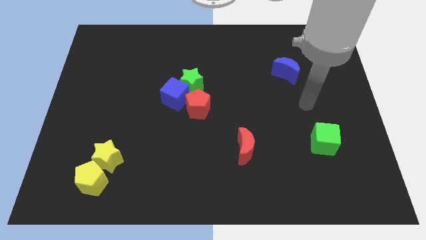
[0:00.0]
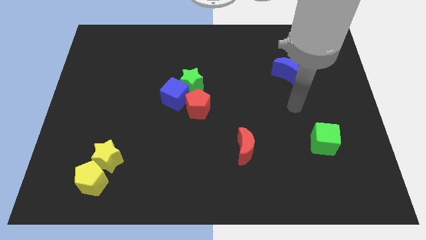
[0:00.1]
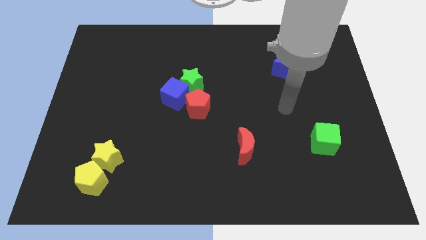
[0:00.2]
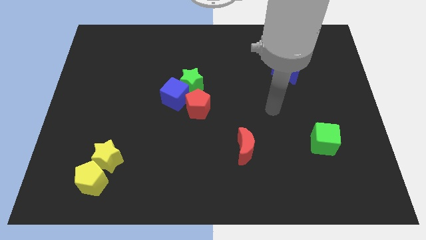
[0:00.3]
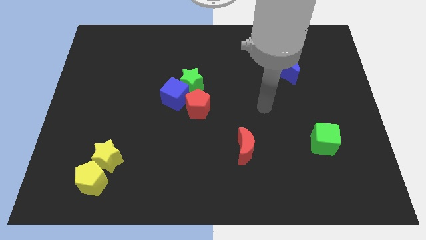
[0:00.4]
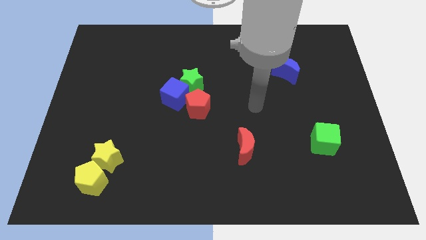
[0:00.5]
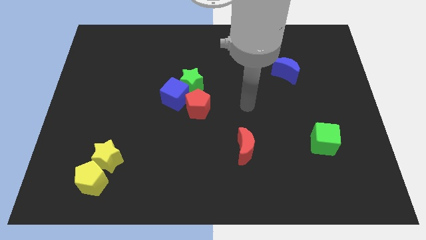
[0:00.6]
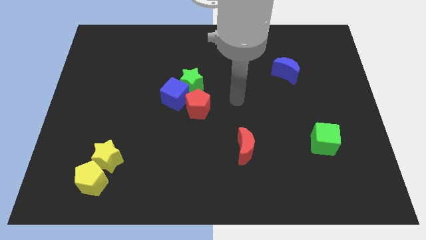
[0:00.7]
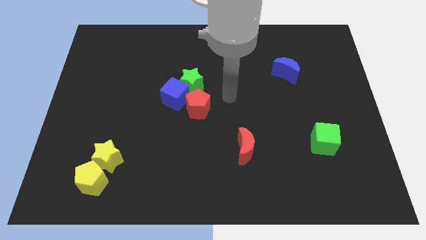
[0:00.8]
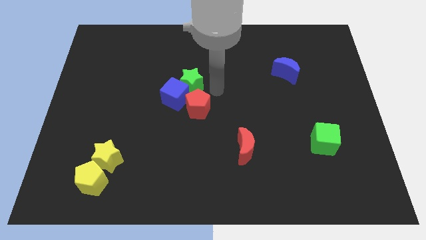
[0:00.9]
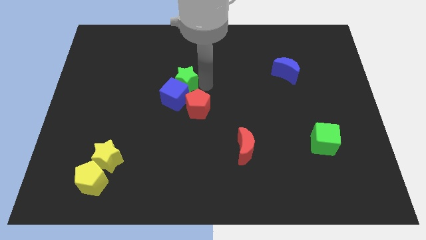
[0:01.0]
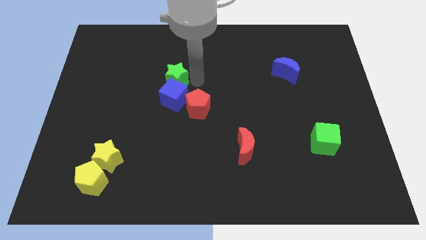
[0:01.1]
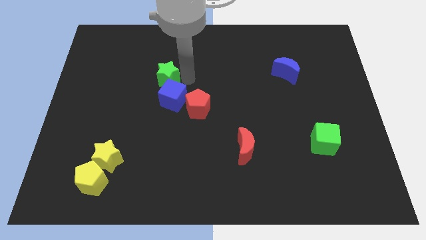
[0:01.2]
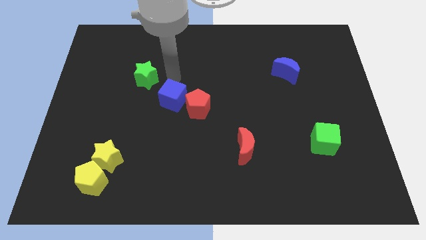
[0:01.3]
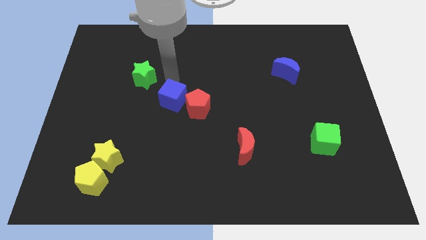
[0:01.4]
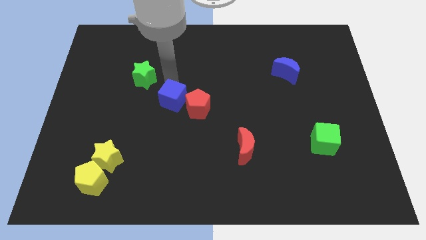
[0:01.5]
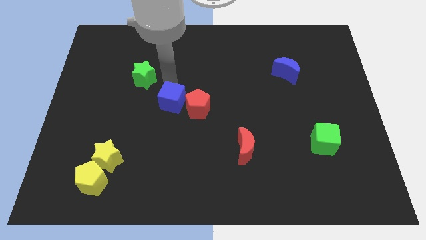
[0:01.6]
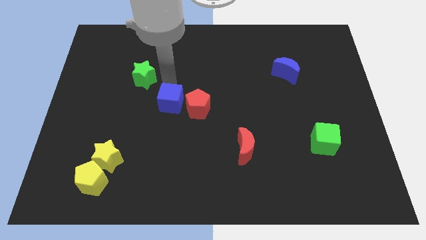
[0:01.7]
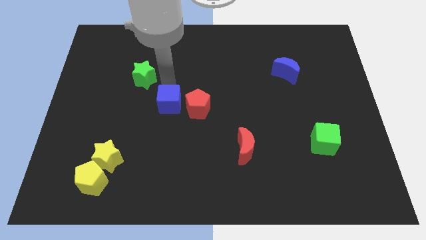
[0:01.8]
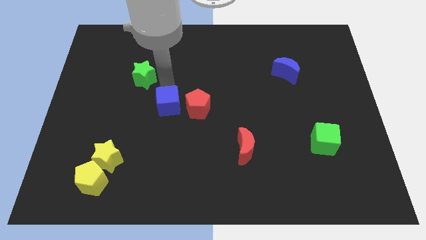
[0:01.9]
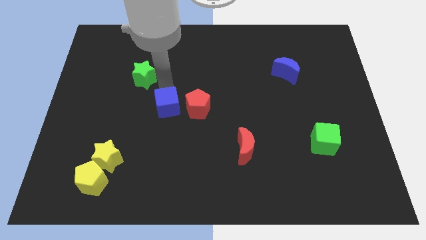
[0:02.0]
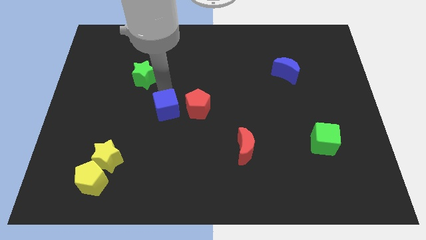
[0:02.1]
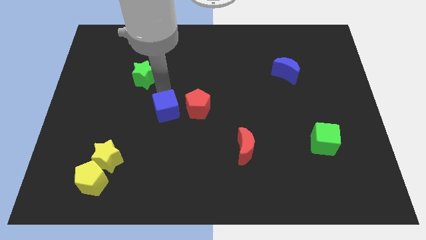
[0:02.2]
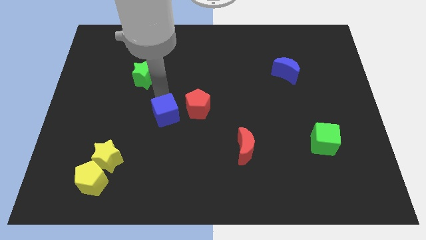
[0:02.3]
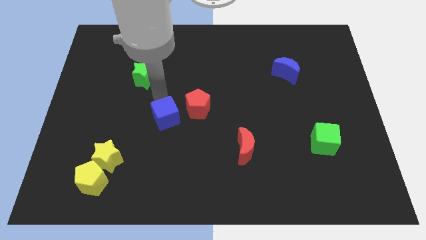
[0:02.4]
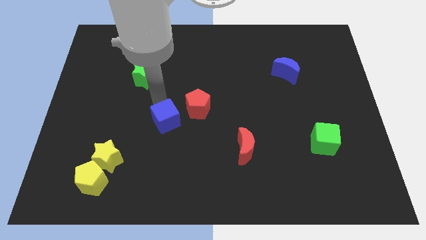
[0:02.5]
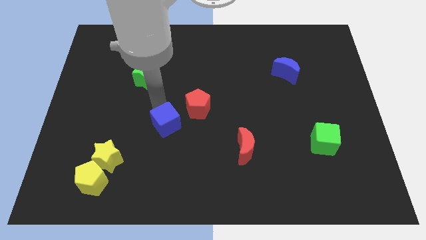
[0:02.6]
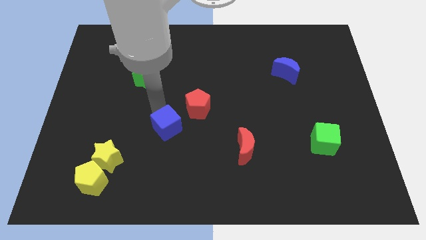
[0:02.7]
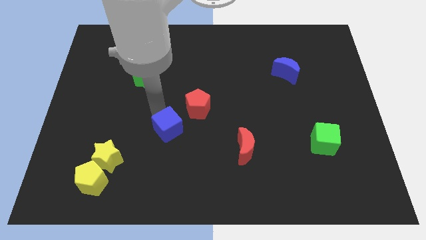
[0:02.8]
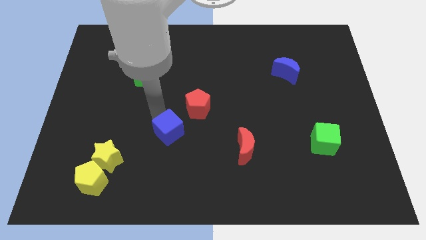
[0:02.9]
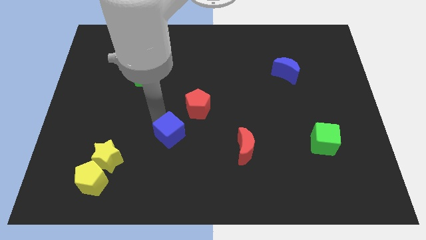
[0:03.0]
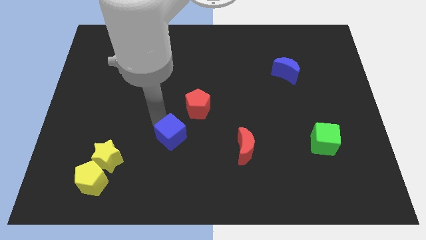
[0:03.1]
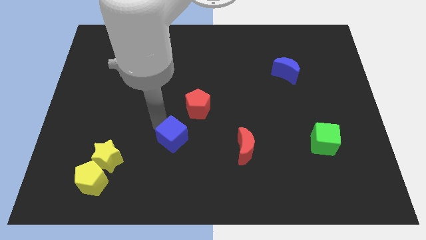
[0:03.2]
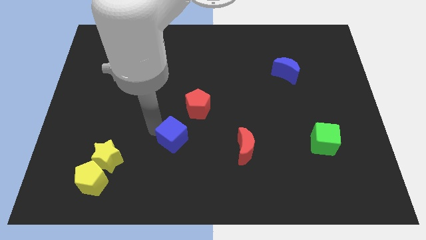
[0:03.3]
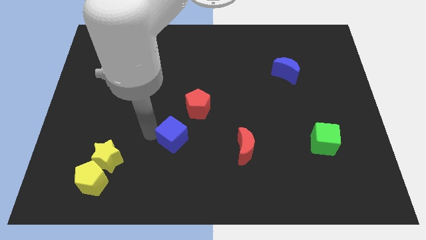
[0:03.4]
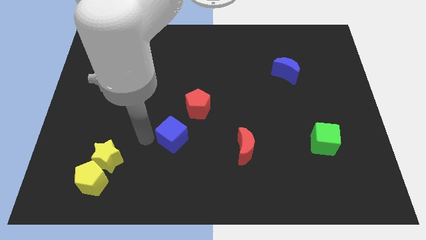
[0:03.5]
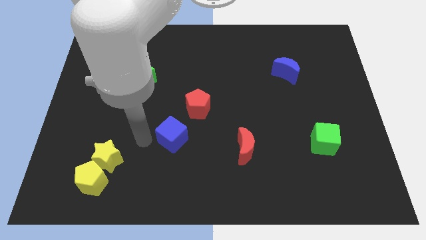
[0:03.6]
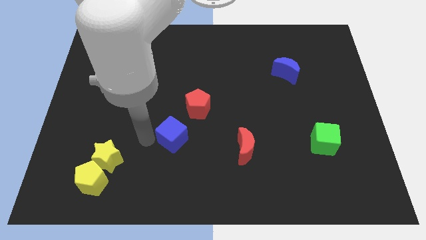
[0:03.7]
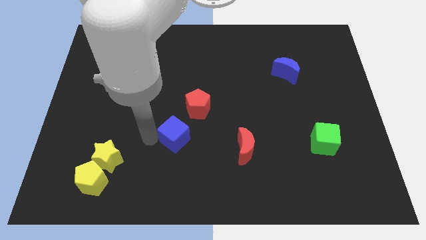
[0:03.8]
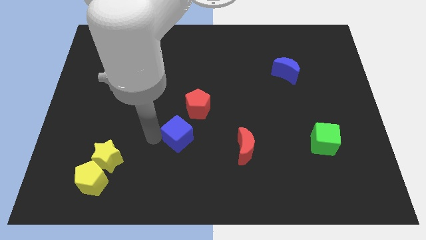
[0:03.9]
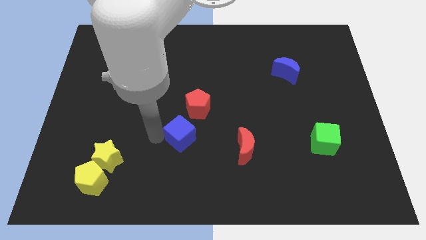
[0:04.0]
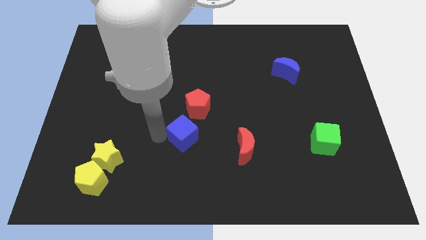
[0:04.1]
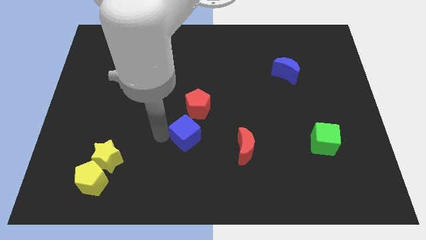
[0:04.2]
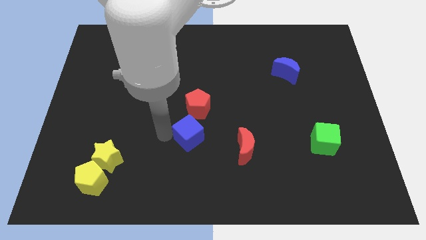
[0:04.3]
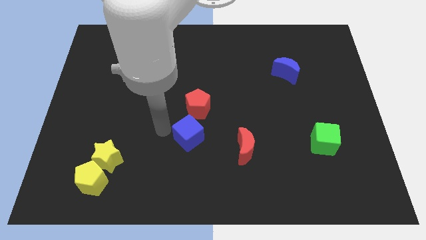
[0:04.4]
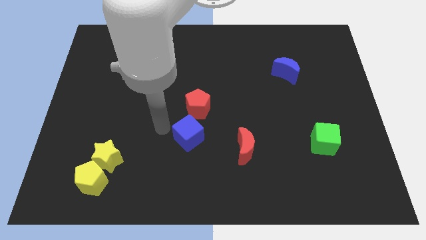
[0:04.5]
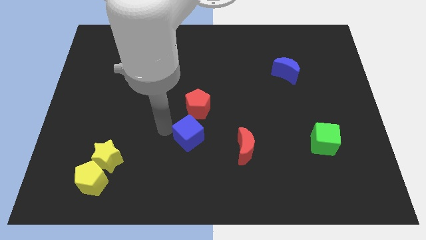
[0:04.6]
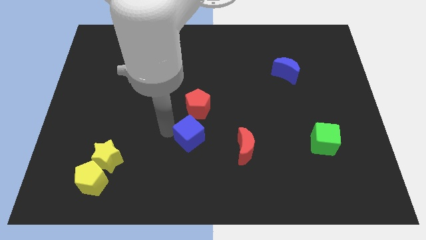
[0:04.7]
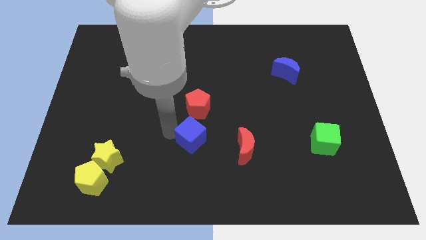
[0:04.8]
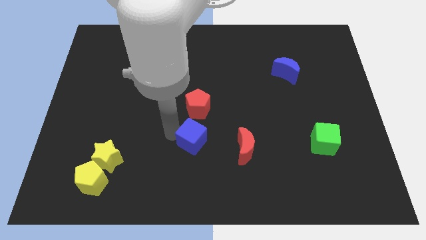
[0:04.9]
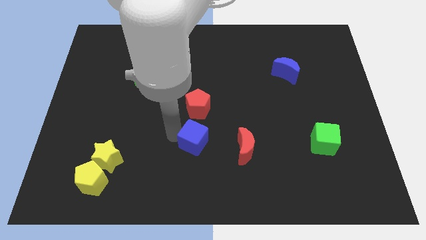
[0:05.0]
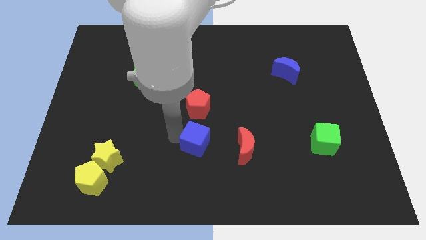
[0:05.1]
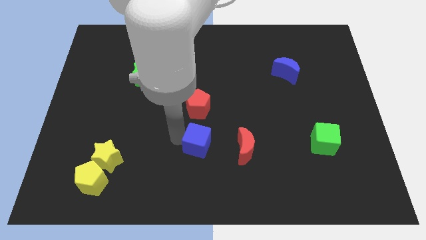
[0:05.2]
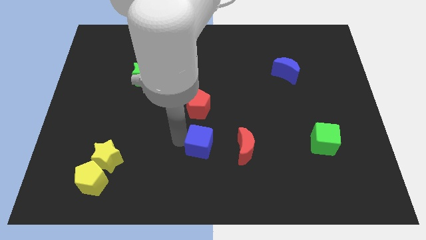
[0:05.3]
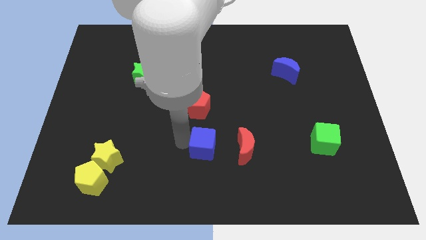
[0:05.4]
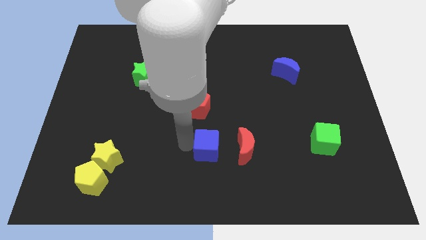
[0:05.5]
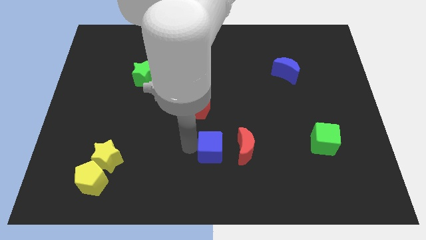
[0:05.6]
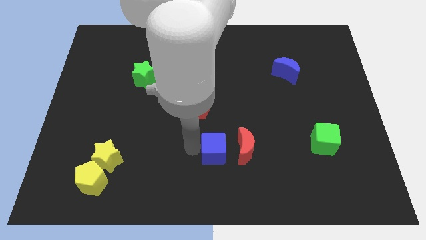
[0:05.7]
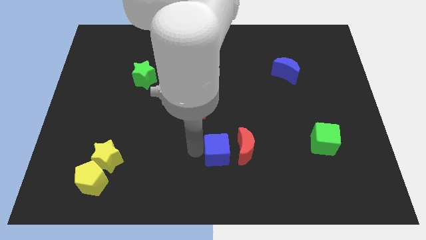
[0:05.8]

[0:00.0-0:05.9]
move the blue cube next to the red moon

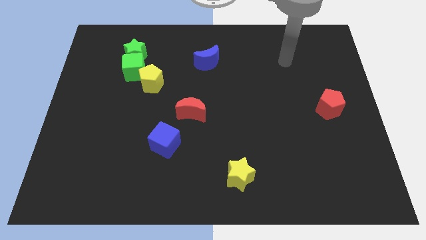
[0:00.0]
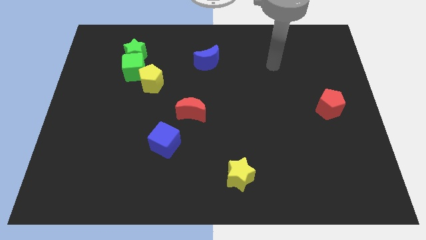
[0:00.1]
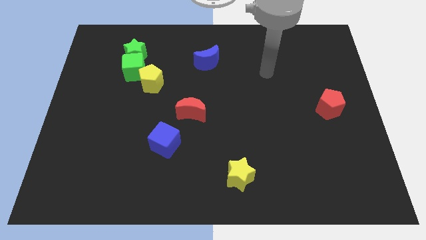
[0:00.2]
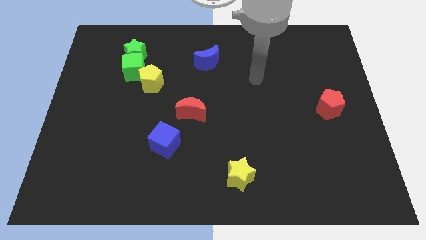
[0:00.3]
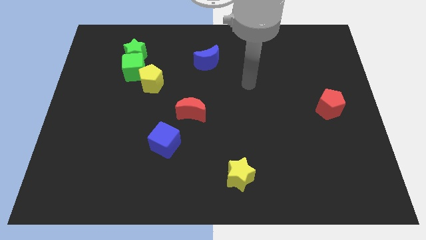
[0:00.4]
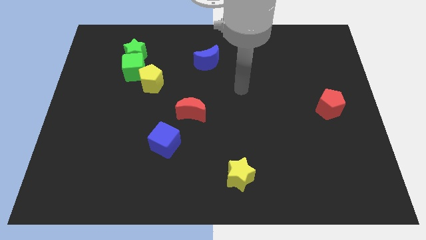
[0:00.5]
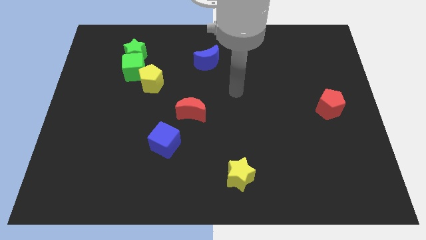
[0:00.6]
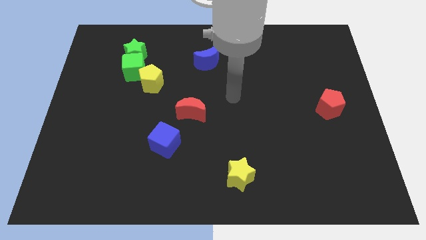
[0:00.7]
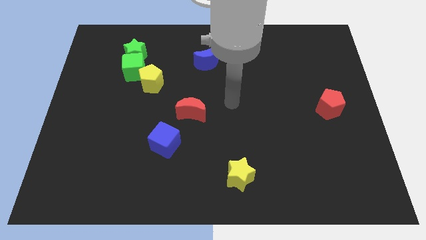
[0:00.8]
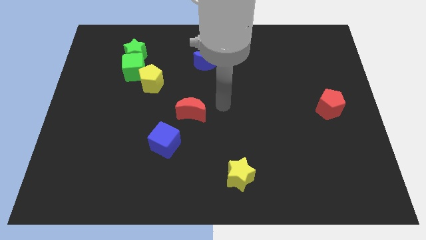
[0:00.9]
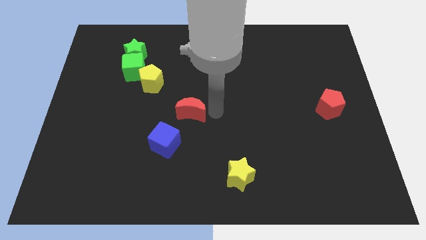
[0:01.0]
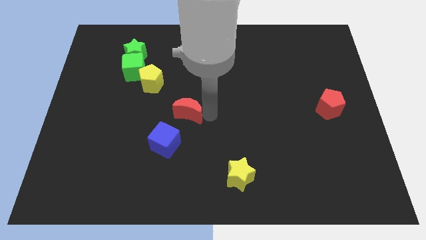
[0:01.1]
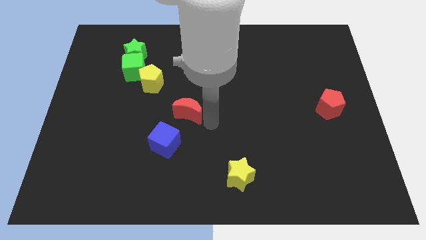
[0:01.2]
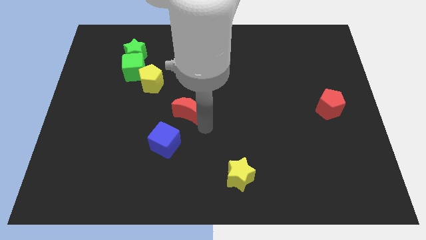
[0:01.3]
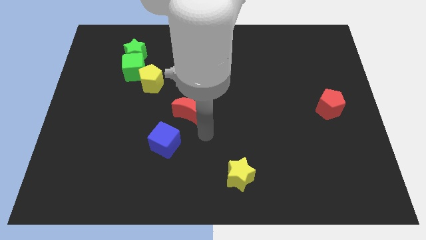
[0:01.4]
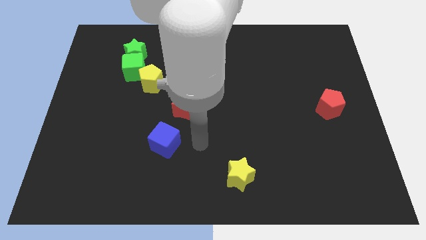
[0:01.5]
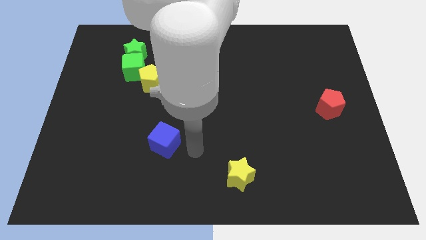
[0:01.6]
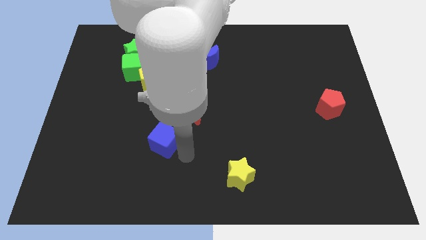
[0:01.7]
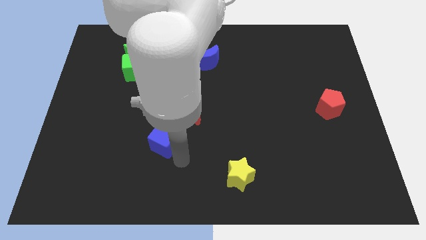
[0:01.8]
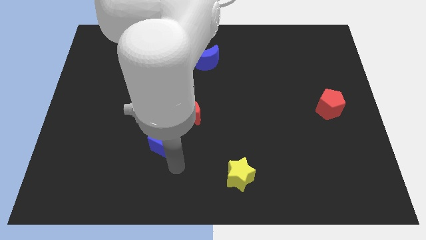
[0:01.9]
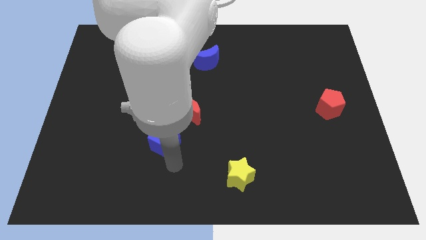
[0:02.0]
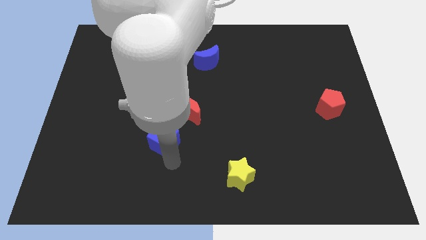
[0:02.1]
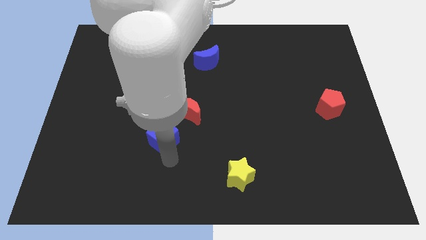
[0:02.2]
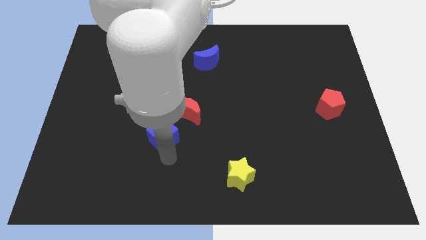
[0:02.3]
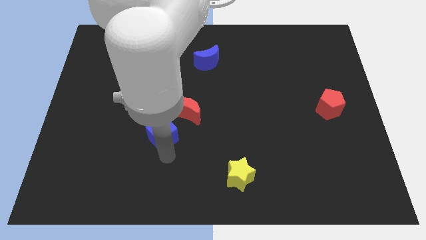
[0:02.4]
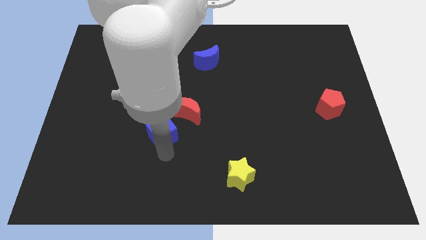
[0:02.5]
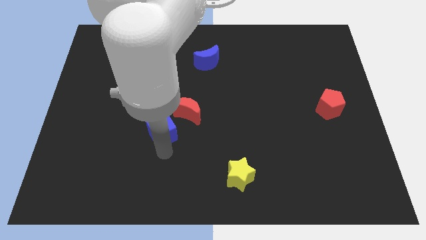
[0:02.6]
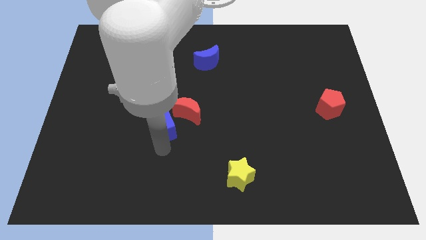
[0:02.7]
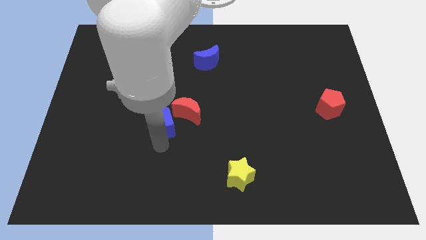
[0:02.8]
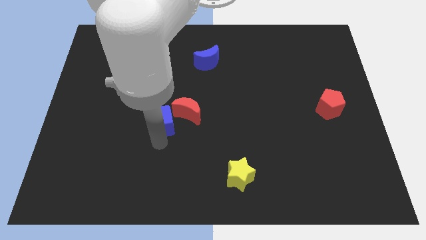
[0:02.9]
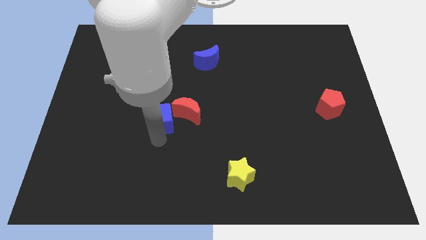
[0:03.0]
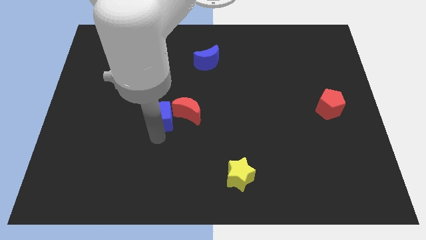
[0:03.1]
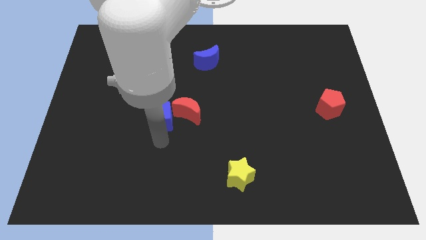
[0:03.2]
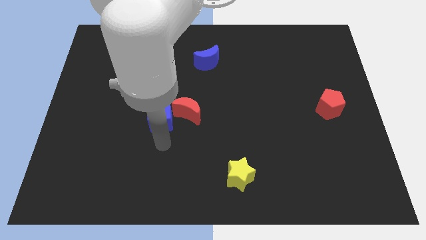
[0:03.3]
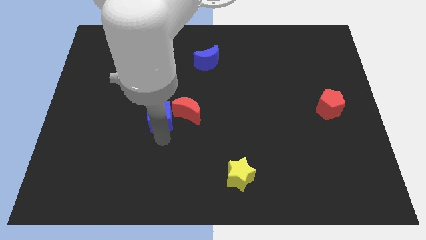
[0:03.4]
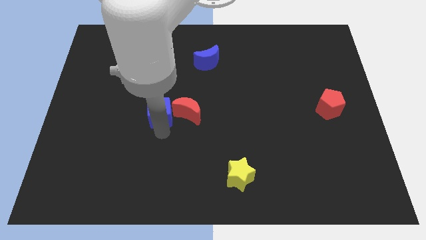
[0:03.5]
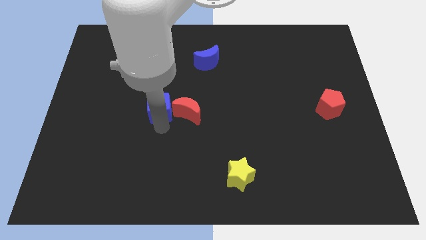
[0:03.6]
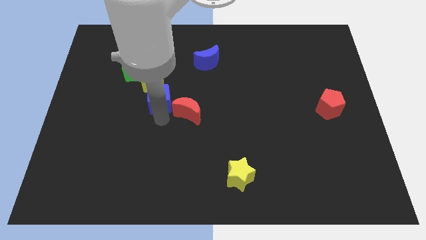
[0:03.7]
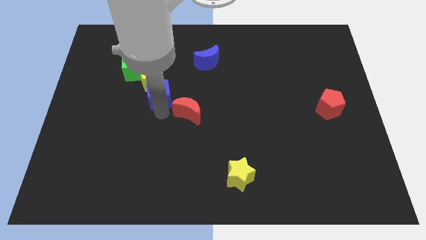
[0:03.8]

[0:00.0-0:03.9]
slide the blue cube next to the yellow pentagon
